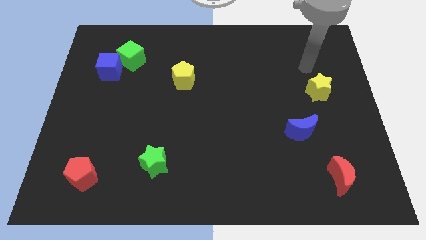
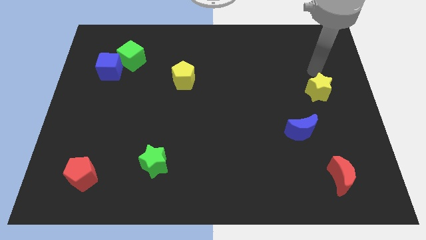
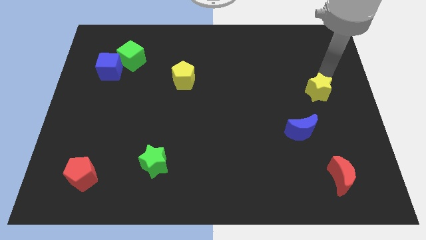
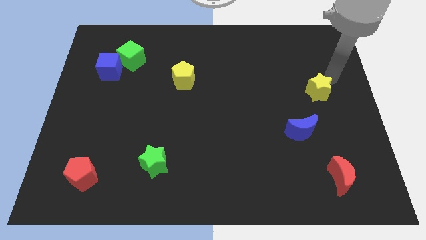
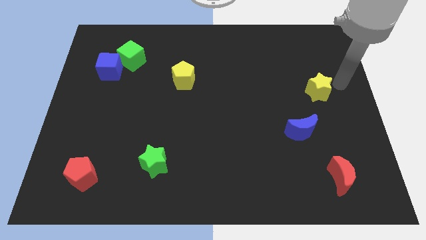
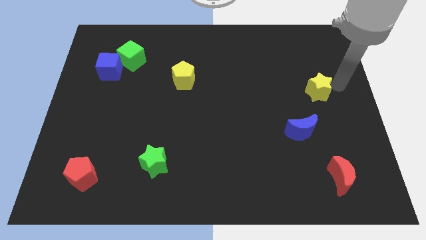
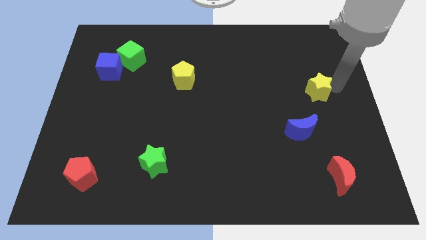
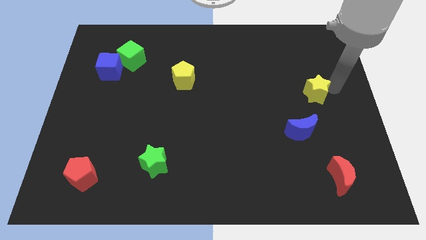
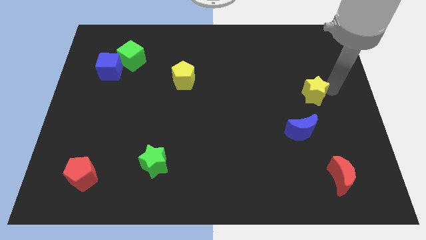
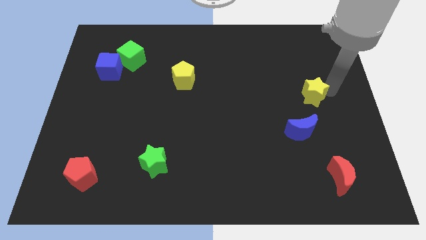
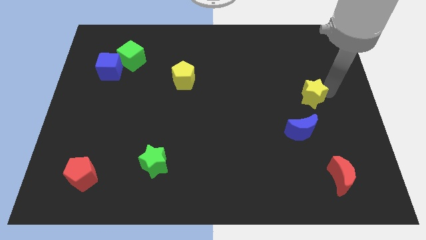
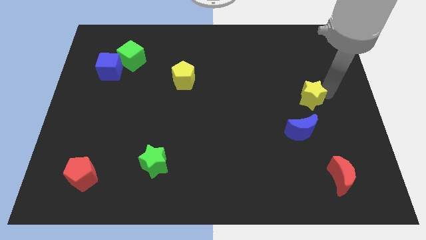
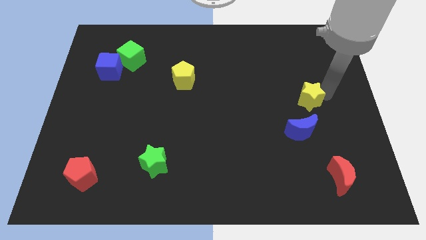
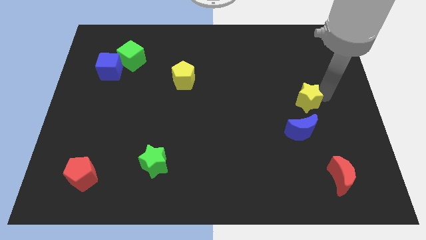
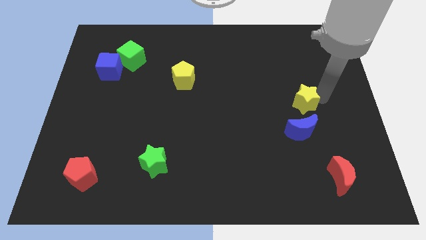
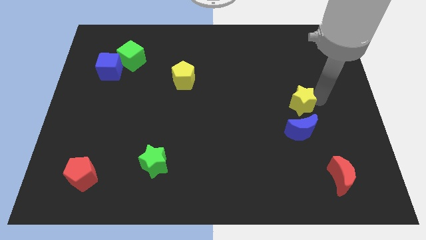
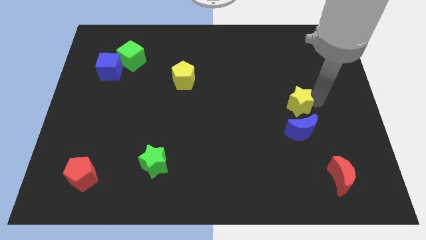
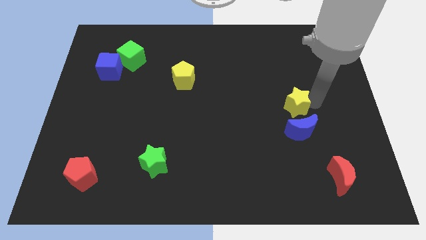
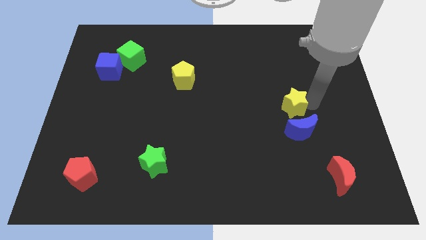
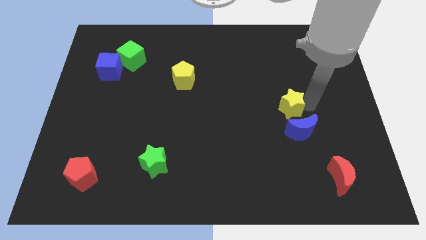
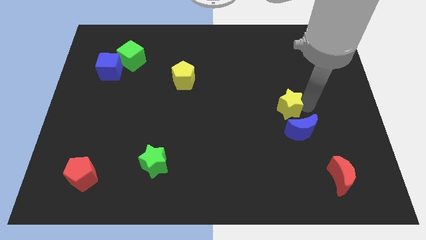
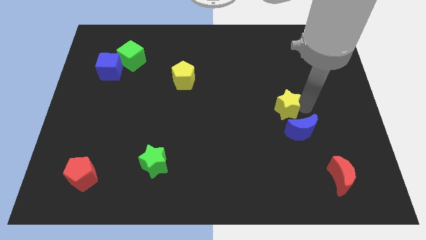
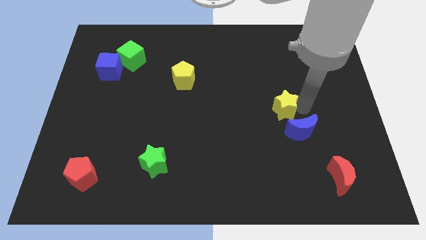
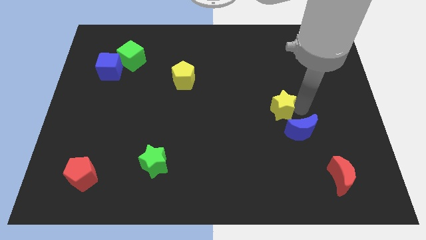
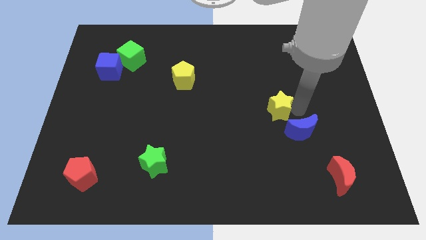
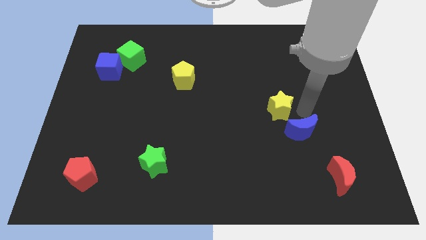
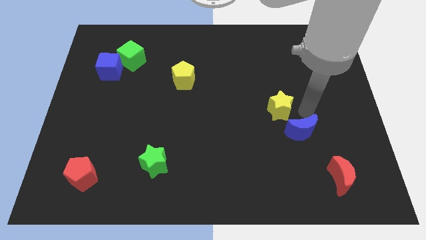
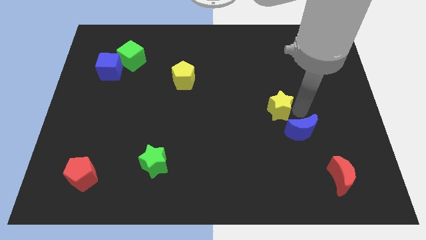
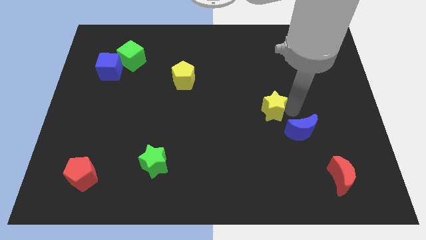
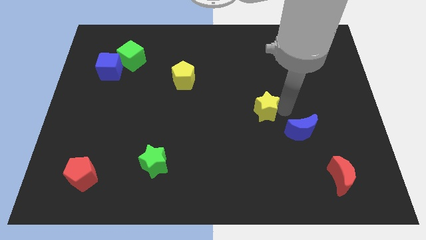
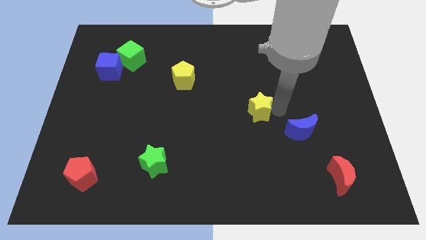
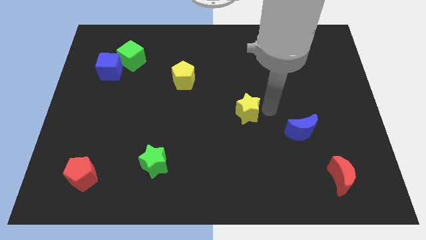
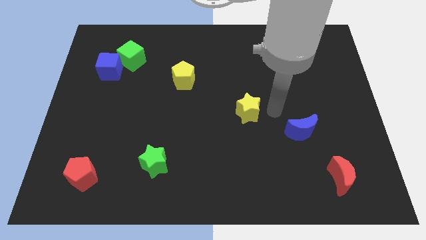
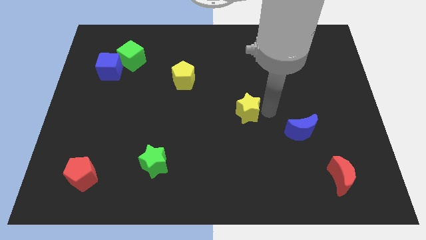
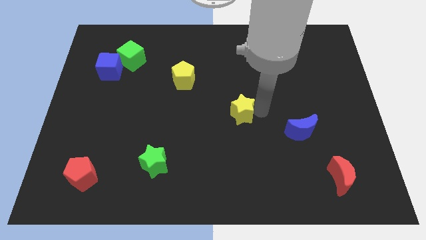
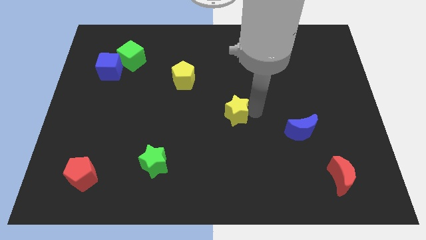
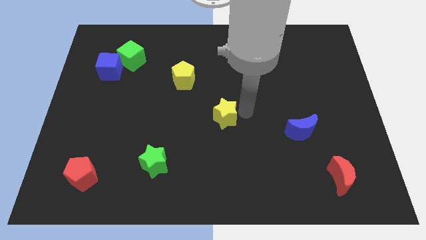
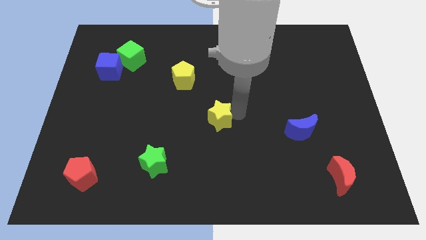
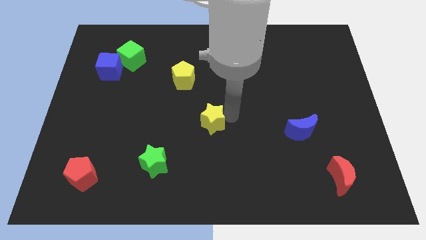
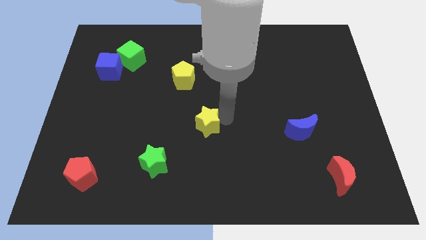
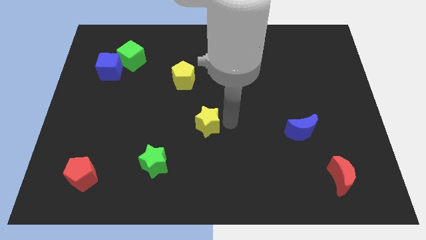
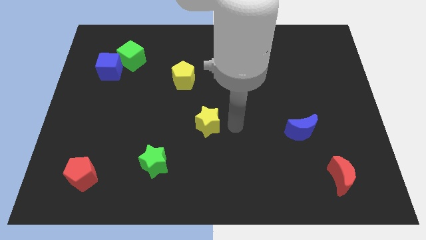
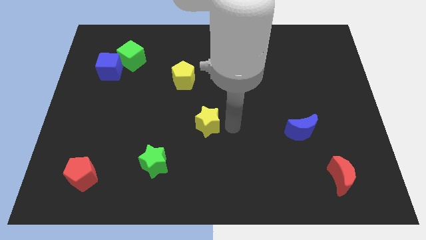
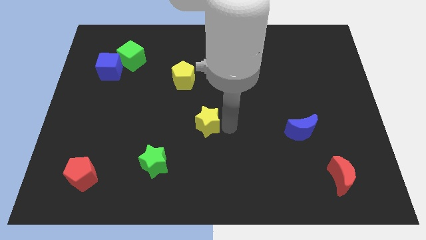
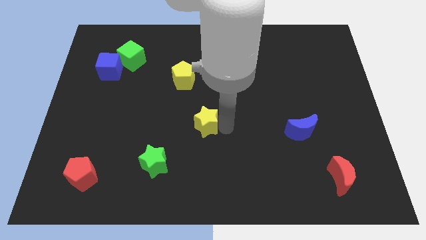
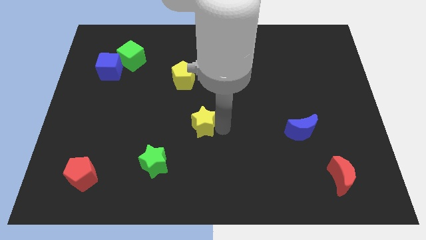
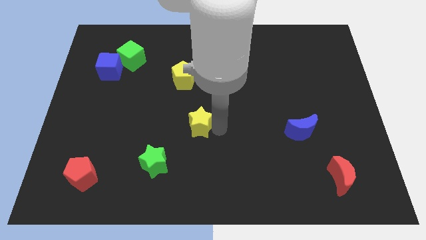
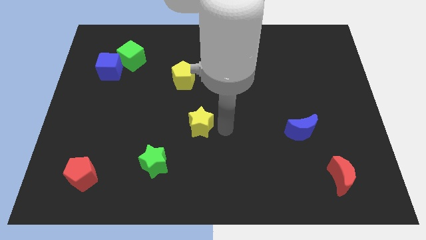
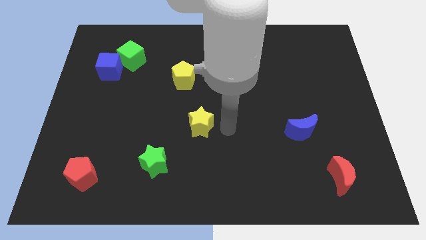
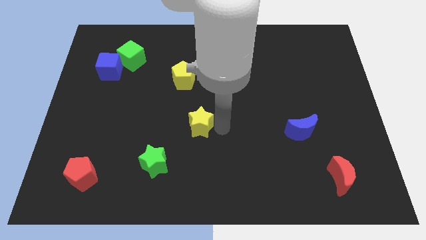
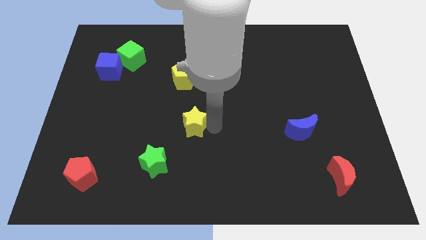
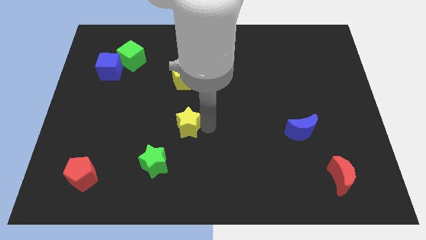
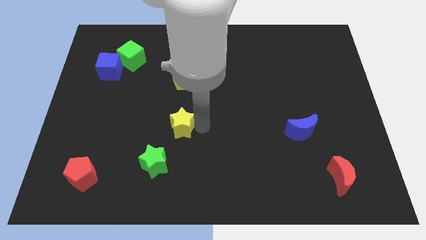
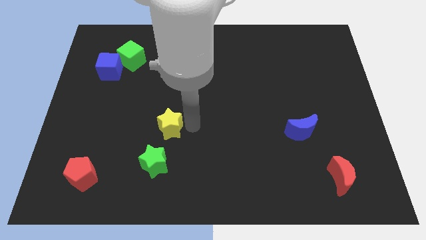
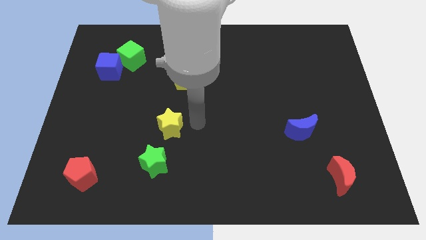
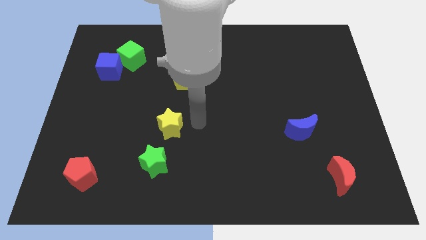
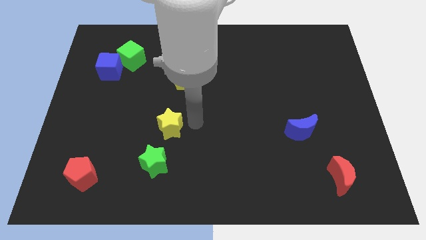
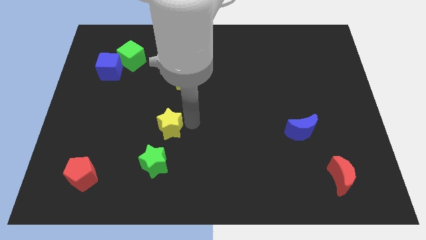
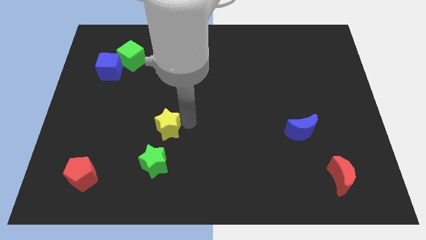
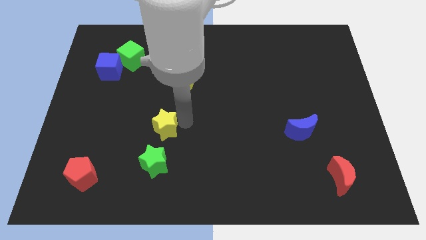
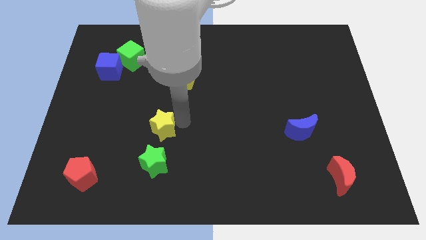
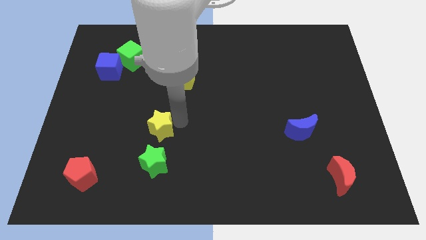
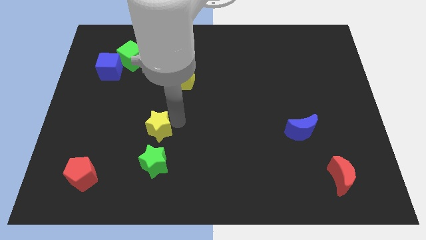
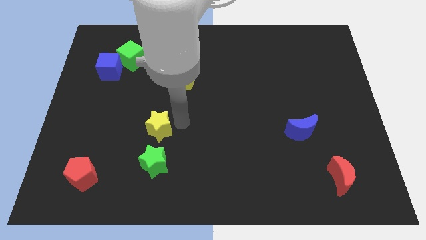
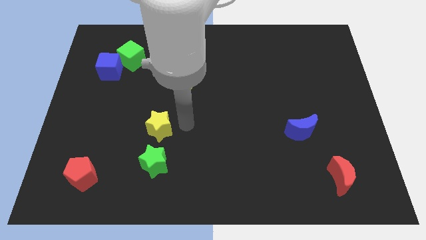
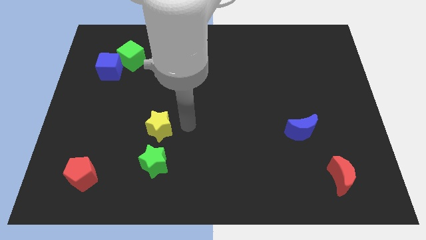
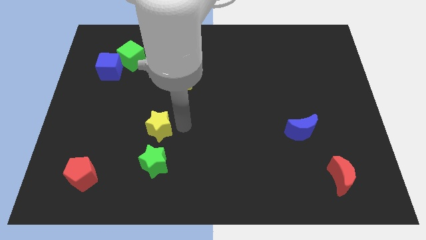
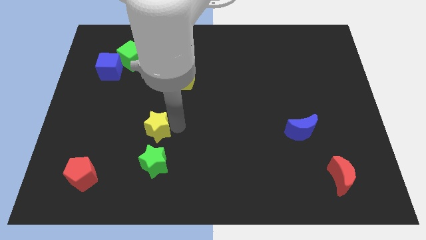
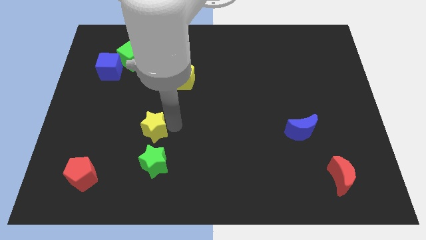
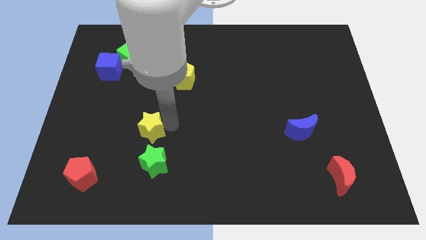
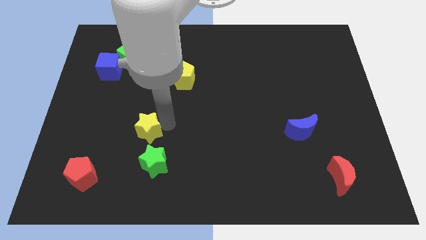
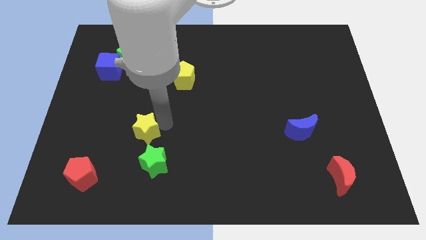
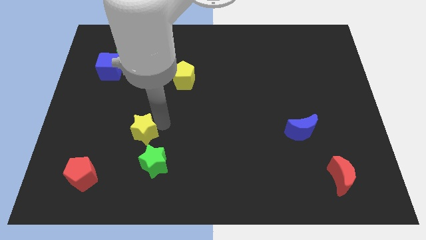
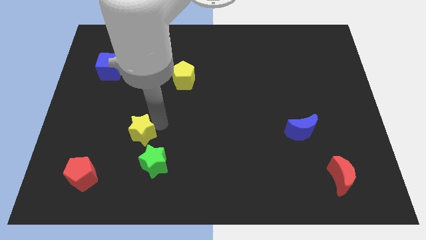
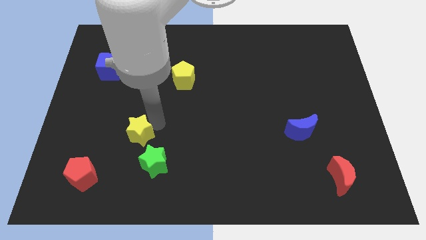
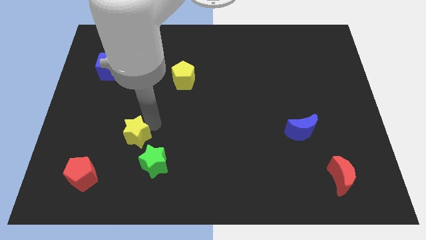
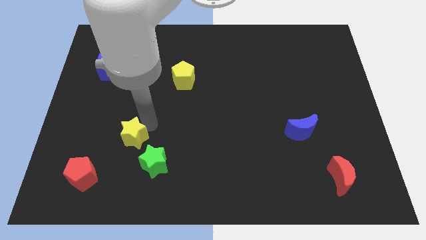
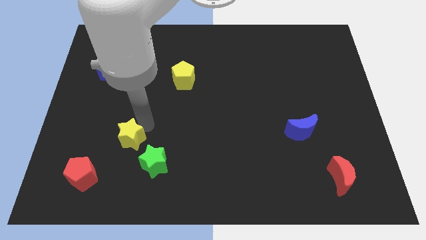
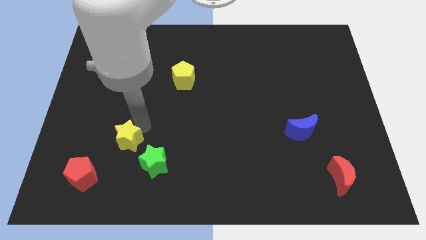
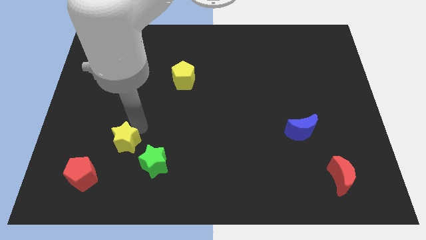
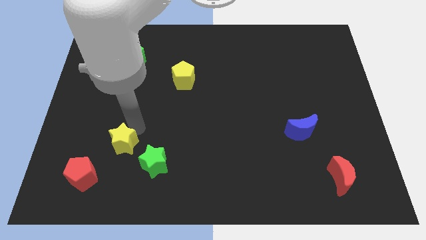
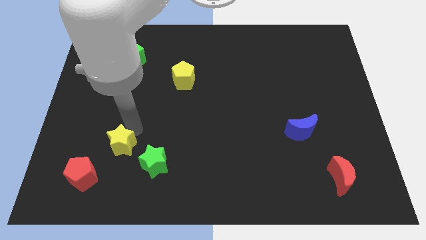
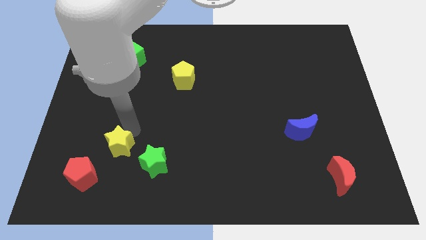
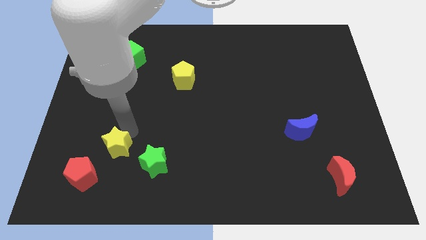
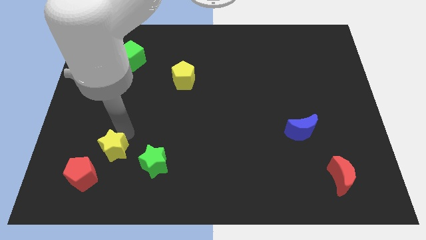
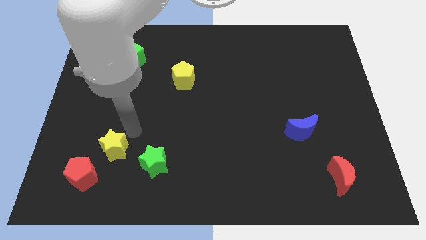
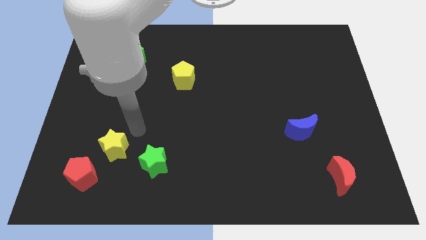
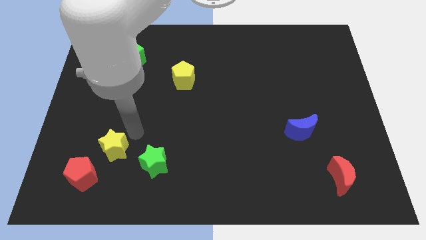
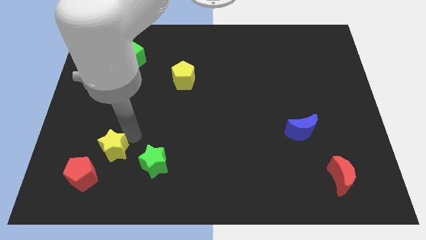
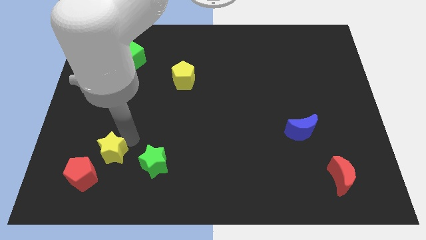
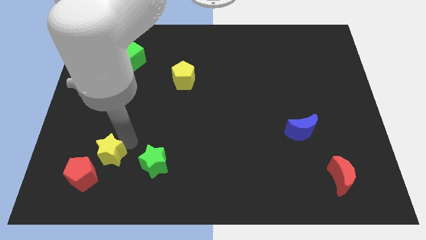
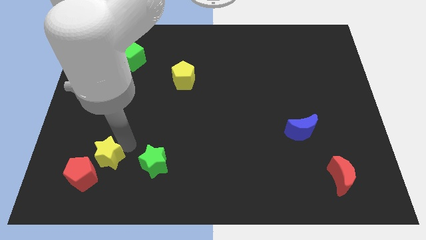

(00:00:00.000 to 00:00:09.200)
slide the yellow star to the red pentagon
